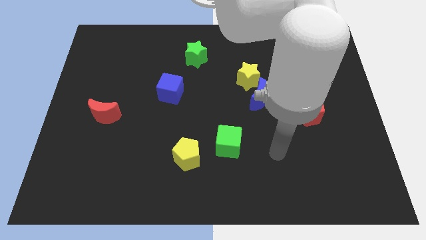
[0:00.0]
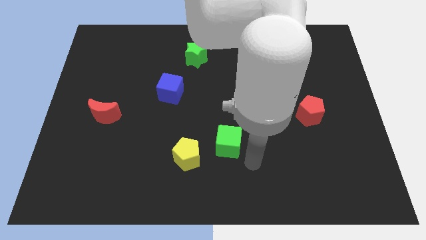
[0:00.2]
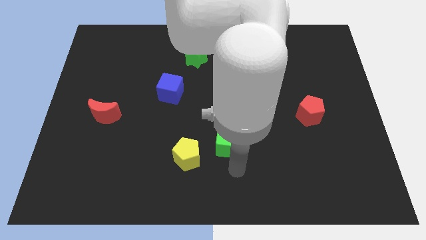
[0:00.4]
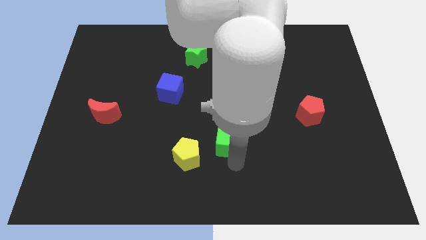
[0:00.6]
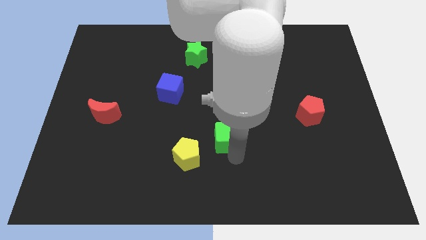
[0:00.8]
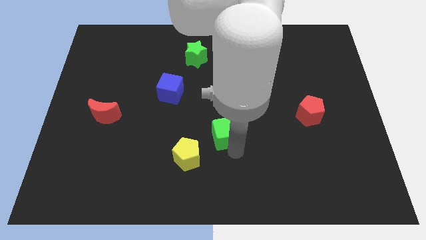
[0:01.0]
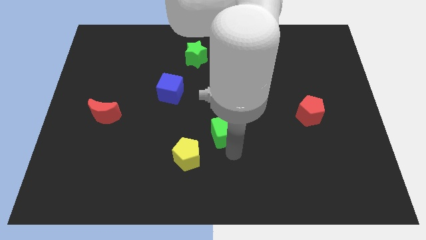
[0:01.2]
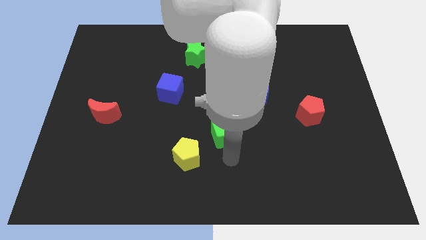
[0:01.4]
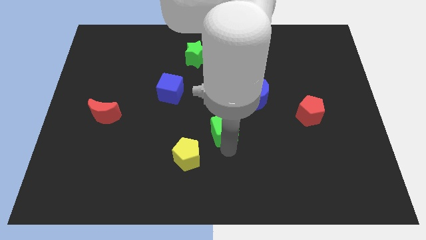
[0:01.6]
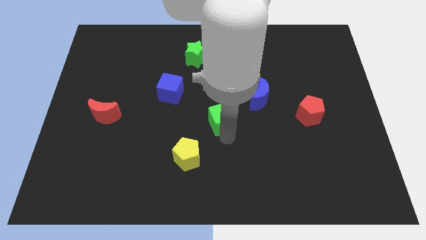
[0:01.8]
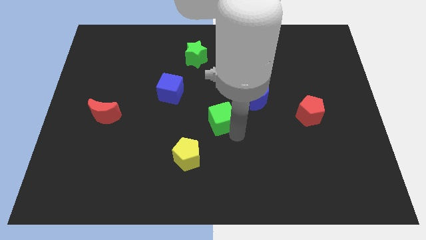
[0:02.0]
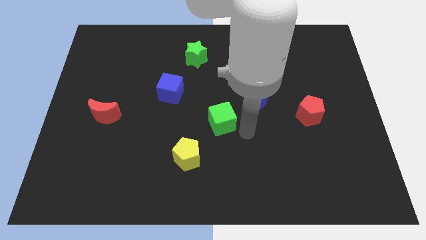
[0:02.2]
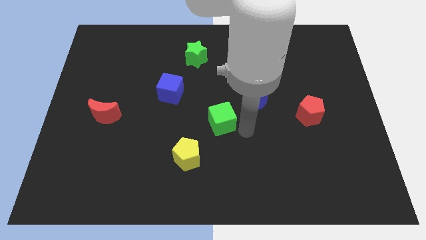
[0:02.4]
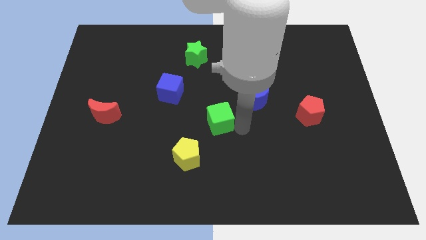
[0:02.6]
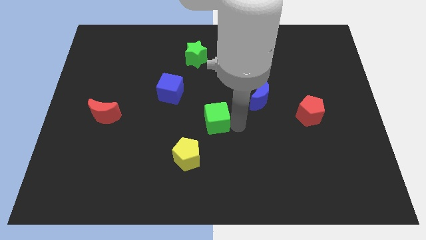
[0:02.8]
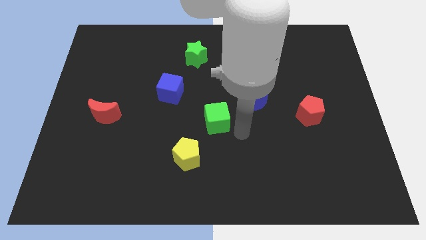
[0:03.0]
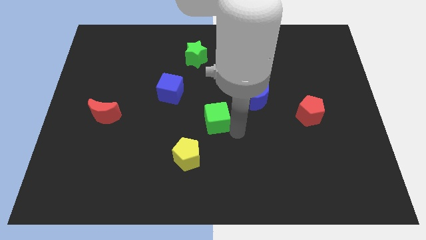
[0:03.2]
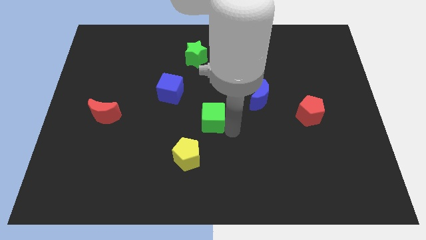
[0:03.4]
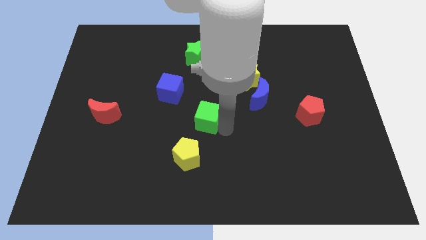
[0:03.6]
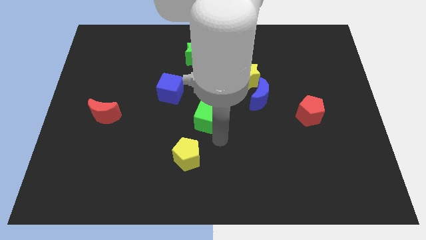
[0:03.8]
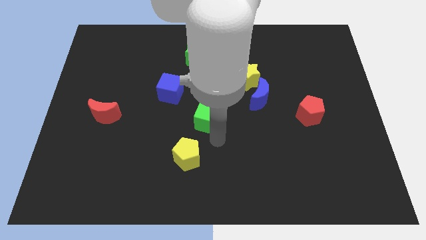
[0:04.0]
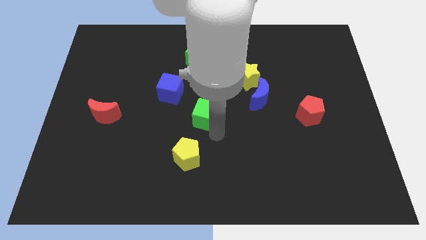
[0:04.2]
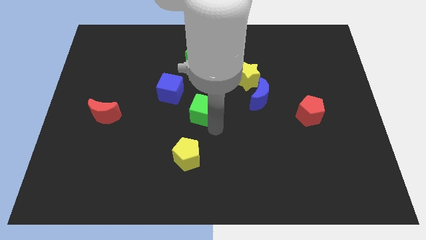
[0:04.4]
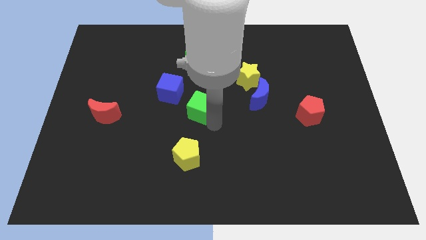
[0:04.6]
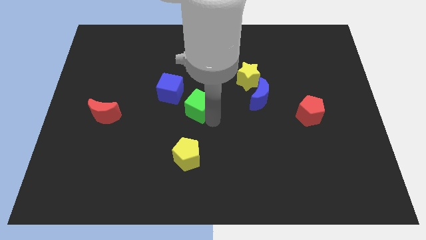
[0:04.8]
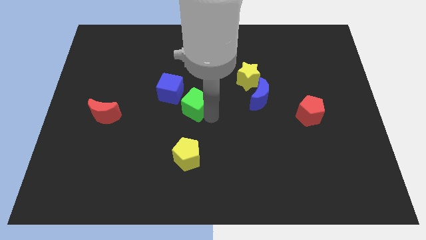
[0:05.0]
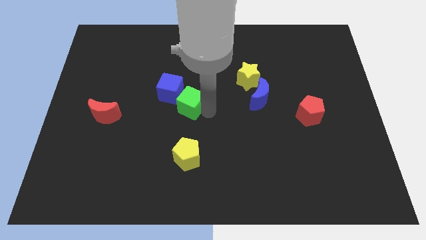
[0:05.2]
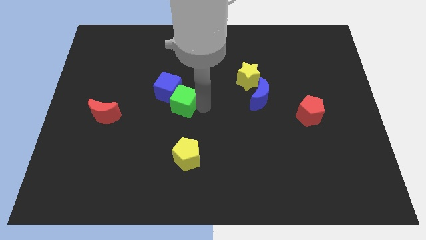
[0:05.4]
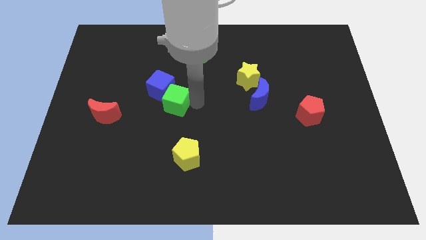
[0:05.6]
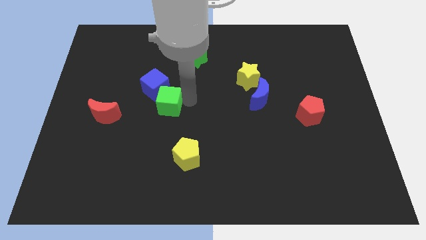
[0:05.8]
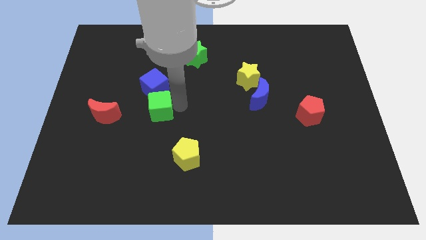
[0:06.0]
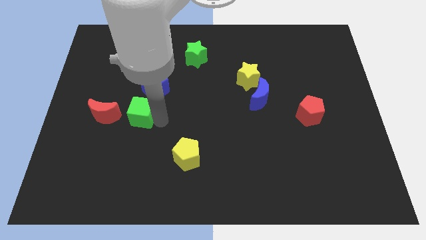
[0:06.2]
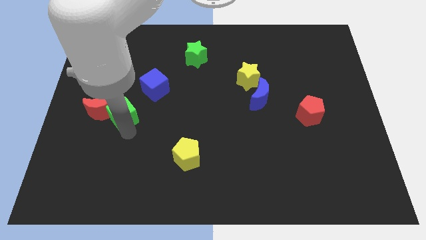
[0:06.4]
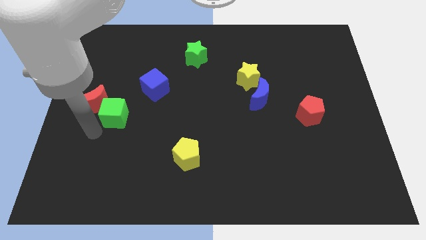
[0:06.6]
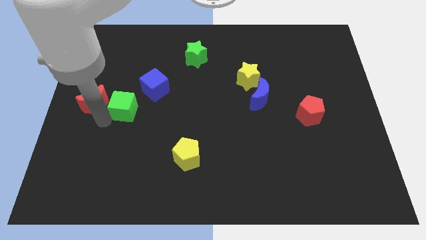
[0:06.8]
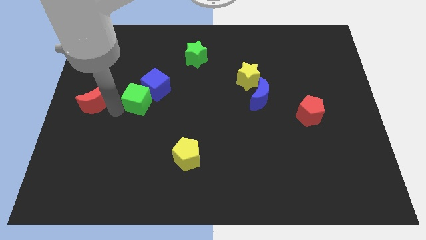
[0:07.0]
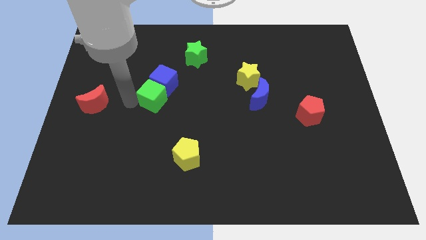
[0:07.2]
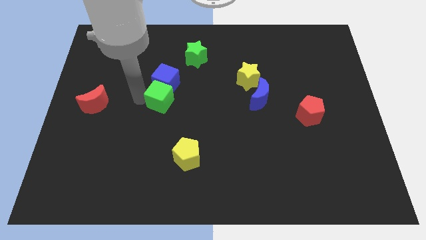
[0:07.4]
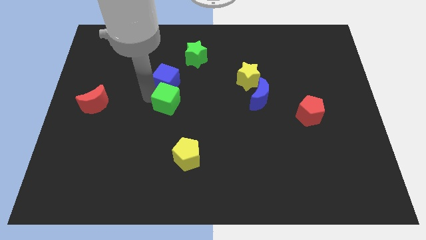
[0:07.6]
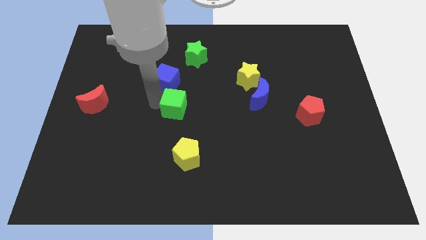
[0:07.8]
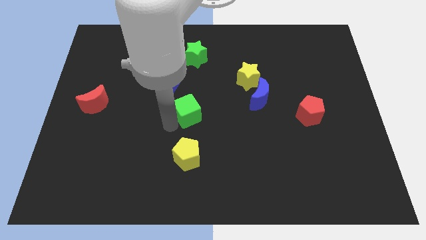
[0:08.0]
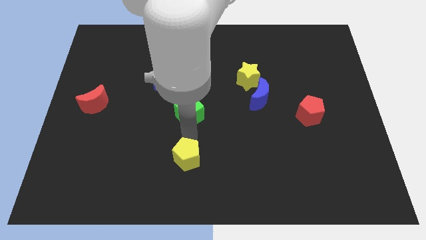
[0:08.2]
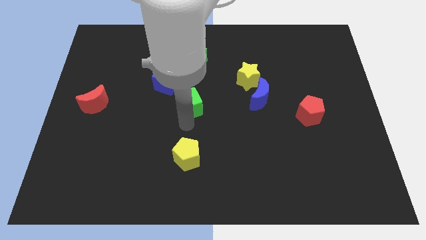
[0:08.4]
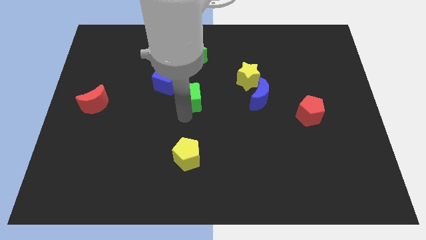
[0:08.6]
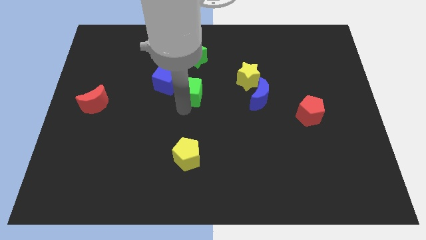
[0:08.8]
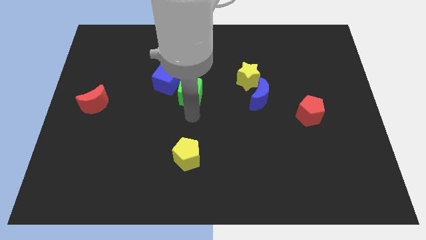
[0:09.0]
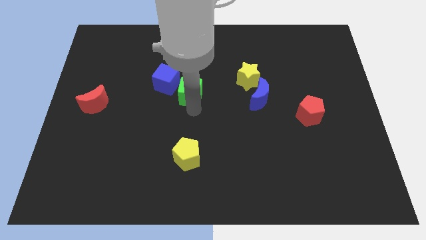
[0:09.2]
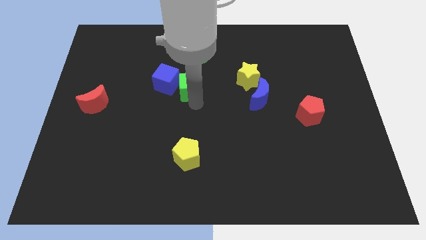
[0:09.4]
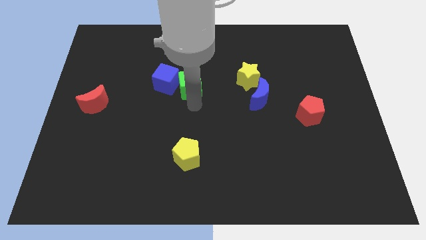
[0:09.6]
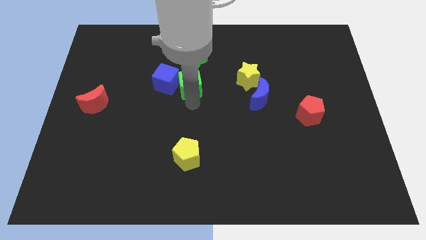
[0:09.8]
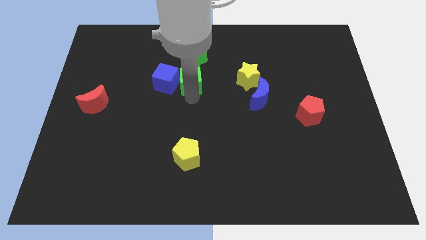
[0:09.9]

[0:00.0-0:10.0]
push the green cube to the top right side of the blue cube

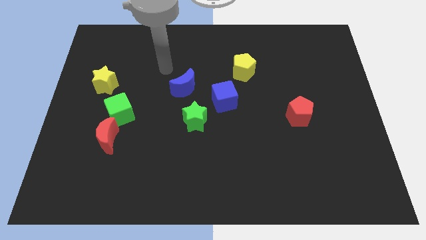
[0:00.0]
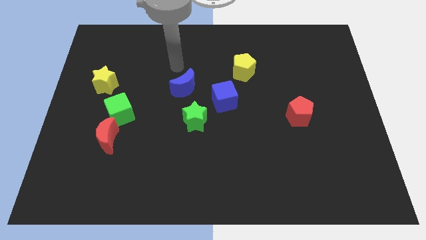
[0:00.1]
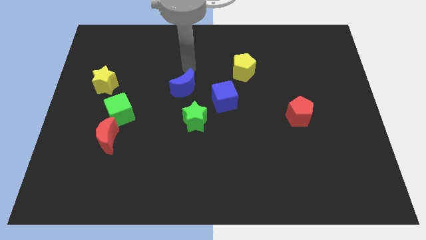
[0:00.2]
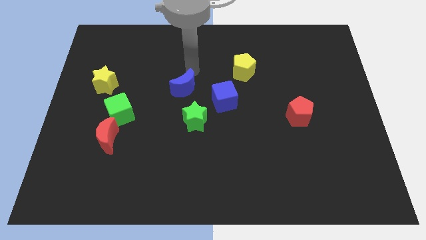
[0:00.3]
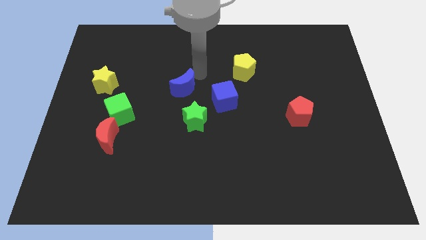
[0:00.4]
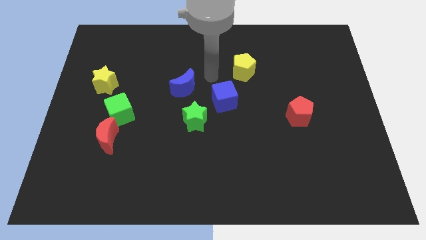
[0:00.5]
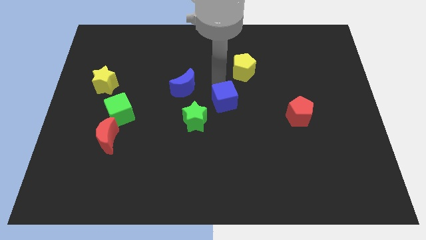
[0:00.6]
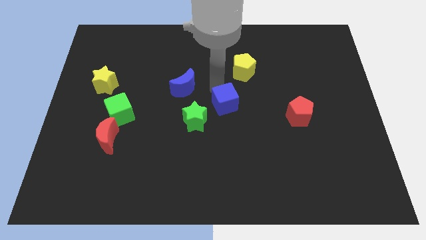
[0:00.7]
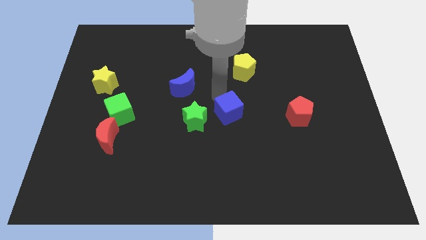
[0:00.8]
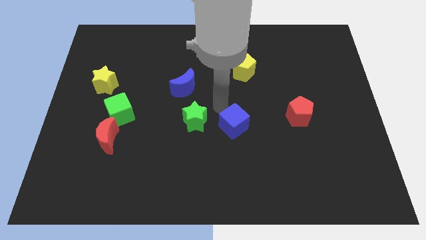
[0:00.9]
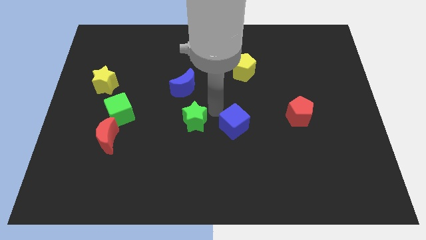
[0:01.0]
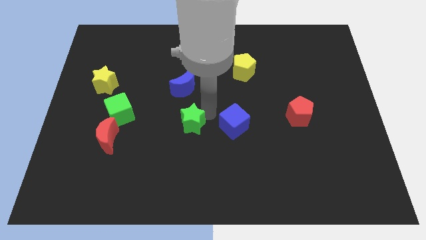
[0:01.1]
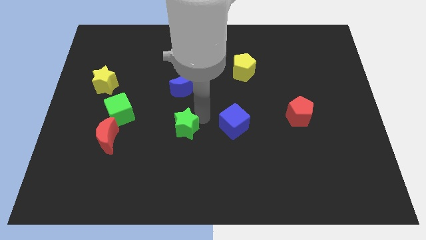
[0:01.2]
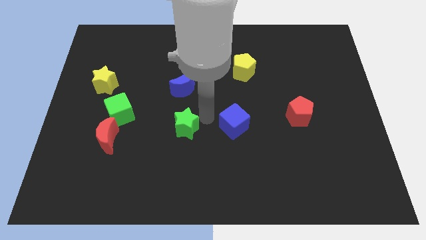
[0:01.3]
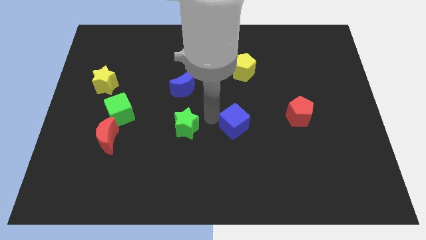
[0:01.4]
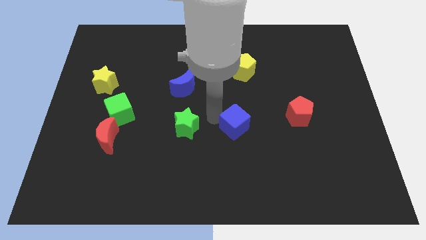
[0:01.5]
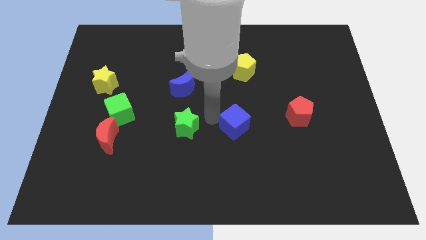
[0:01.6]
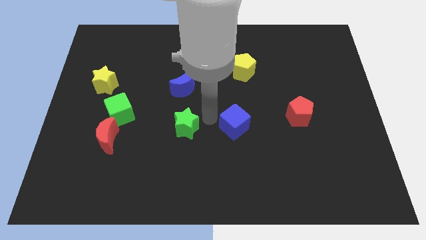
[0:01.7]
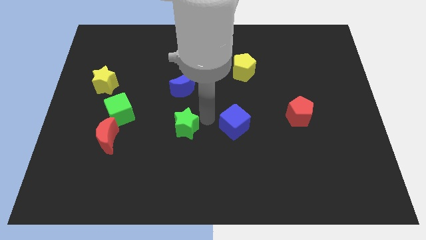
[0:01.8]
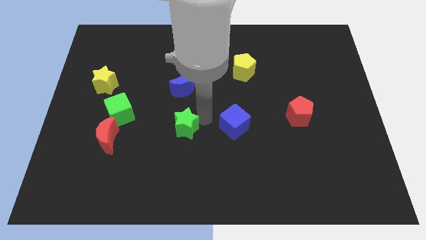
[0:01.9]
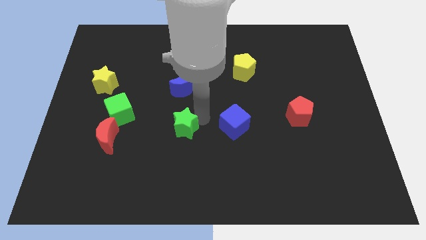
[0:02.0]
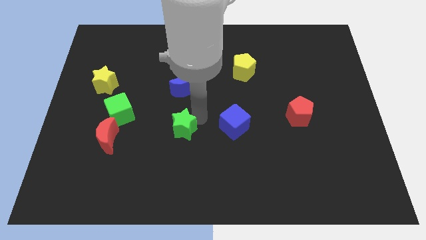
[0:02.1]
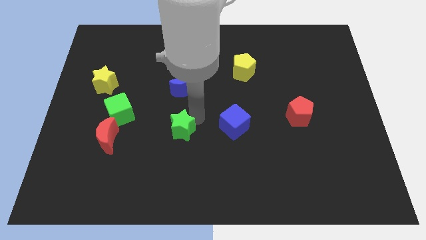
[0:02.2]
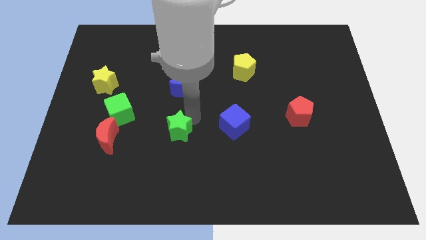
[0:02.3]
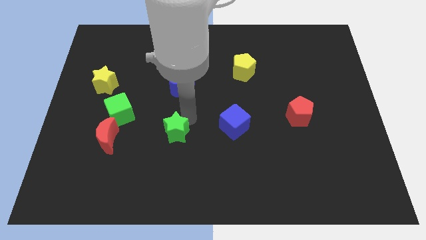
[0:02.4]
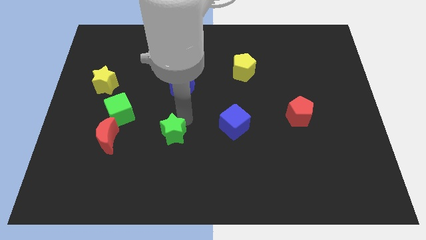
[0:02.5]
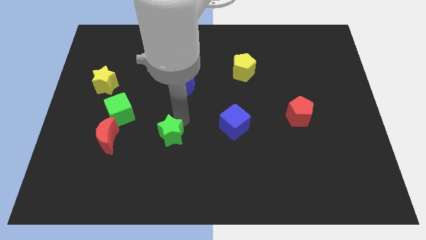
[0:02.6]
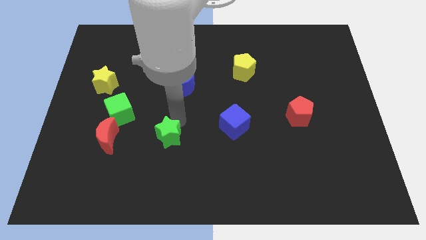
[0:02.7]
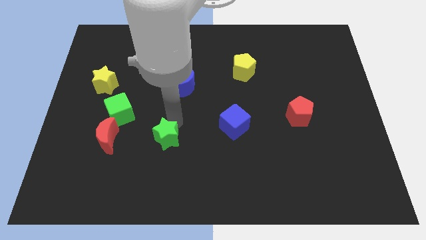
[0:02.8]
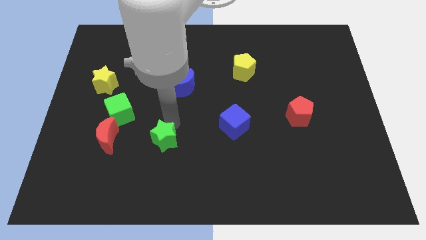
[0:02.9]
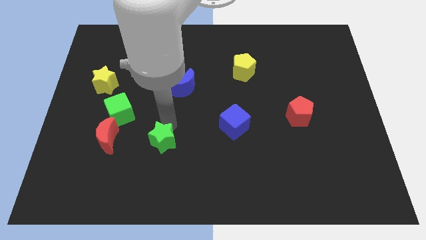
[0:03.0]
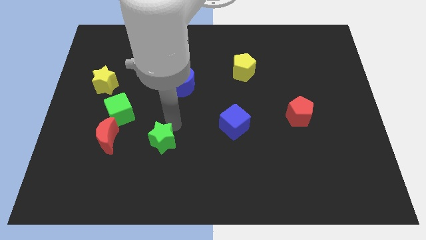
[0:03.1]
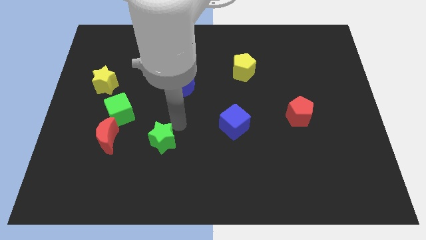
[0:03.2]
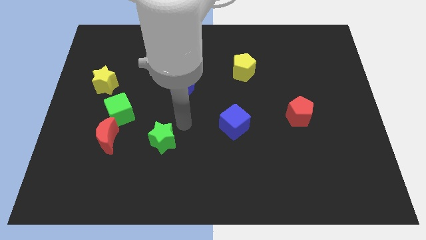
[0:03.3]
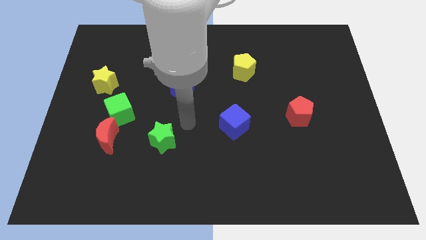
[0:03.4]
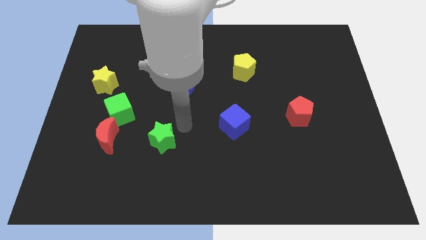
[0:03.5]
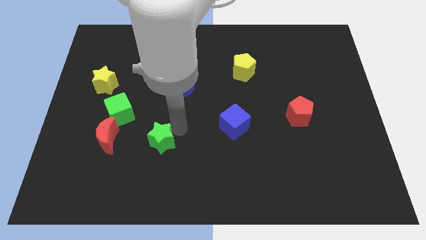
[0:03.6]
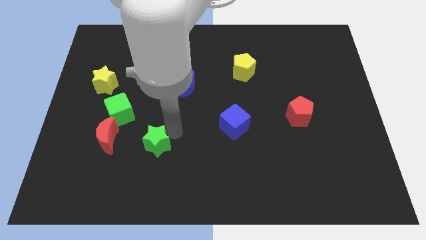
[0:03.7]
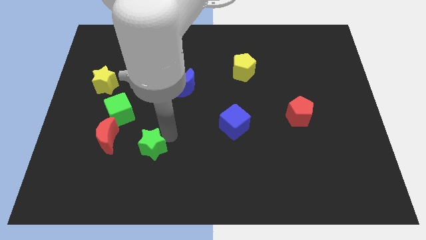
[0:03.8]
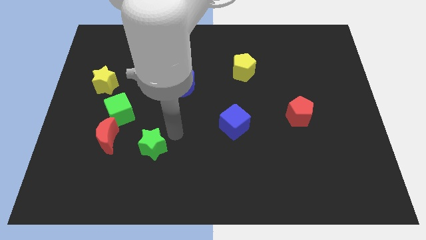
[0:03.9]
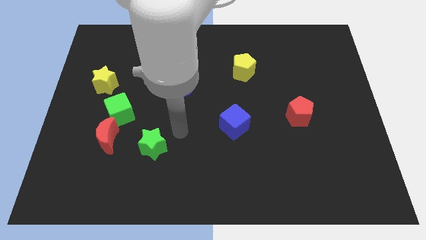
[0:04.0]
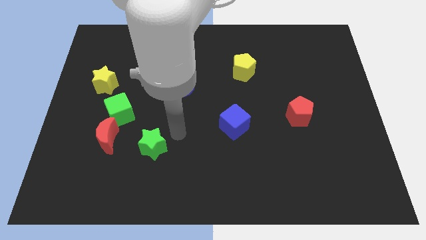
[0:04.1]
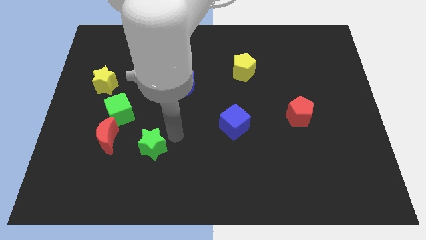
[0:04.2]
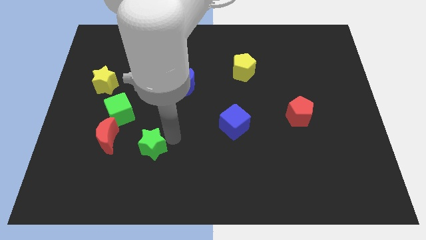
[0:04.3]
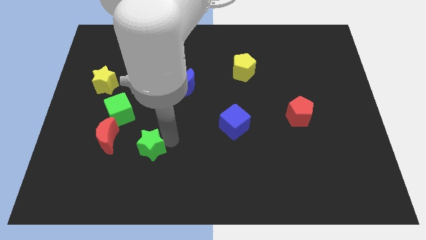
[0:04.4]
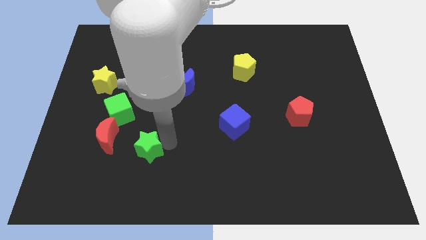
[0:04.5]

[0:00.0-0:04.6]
push the green star to the bottom right side of the red moon
